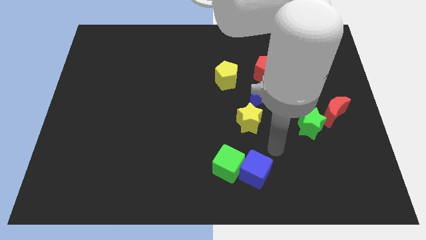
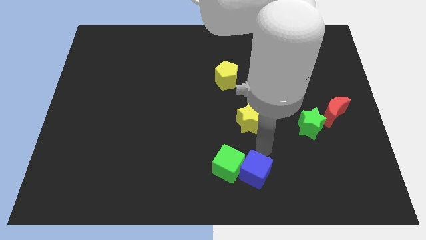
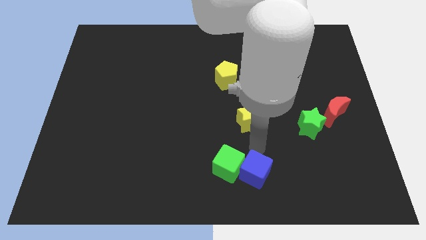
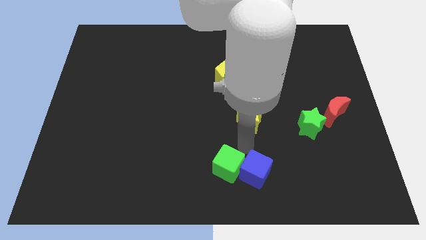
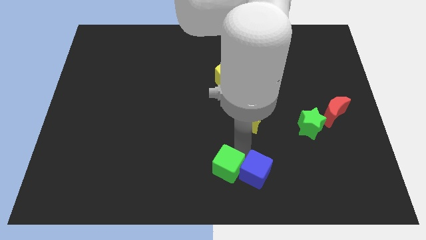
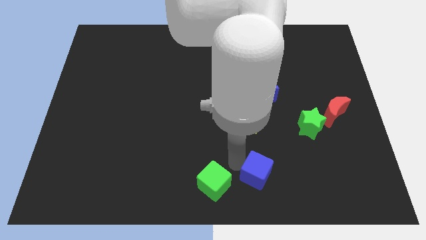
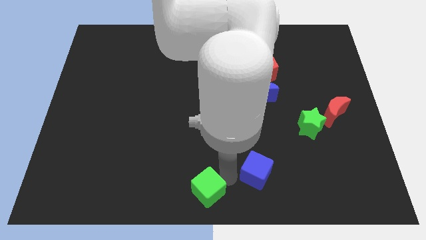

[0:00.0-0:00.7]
separate the blue cube from the green cube

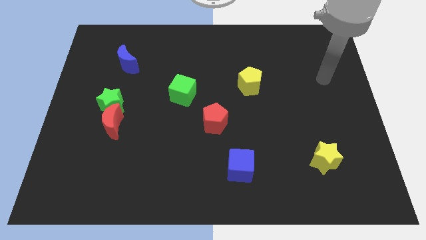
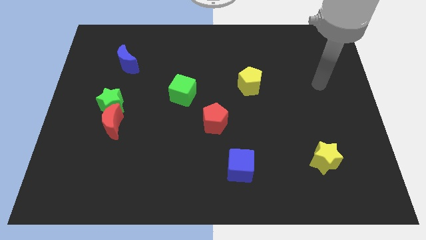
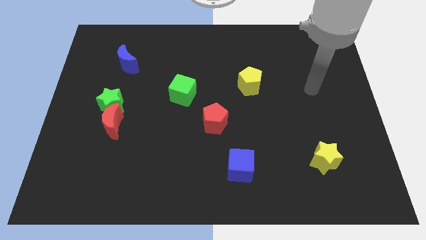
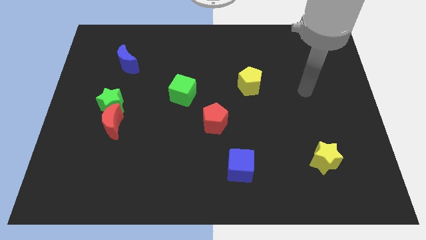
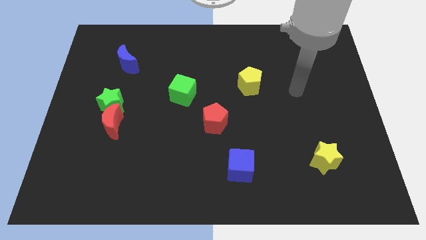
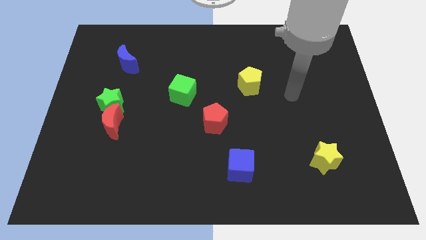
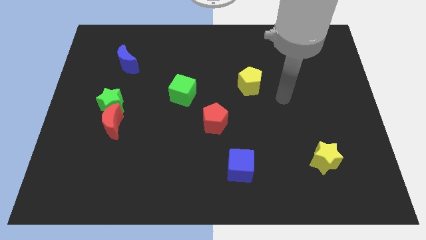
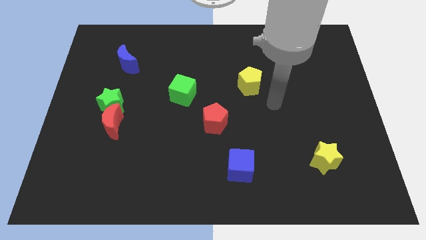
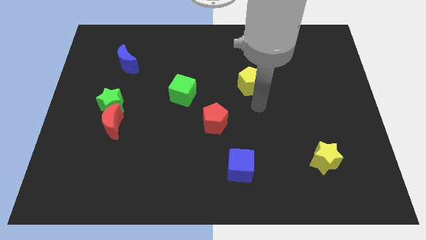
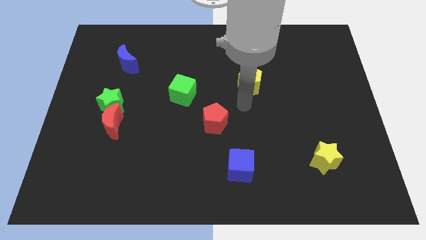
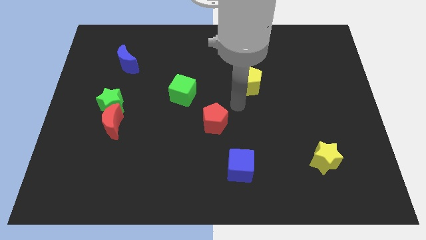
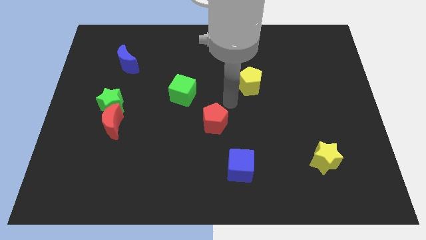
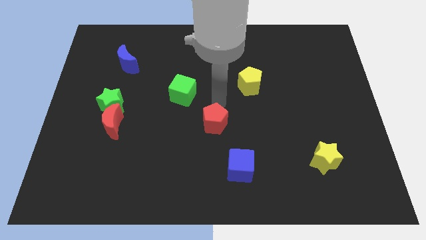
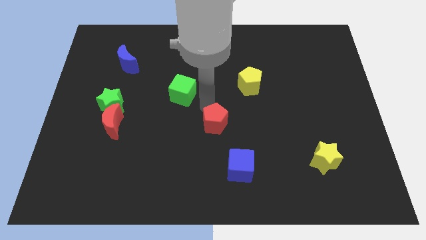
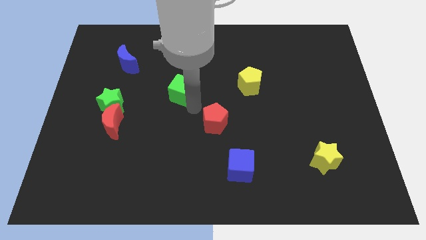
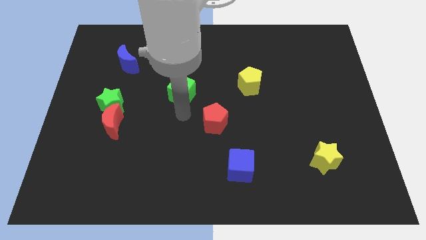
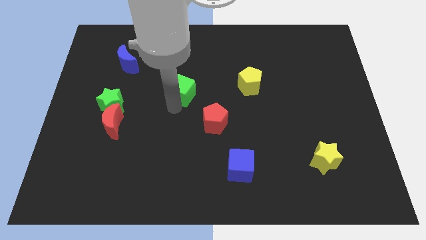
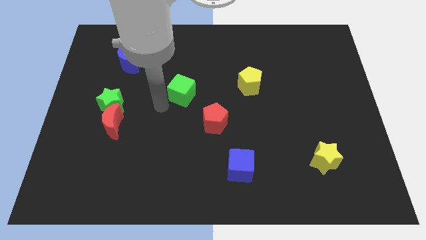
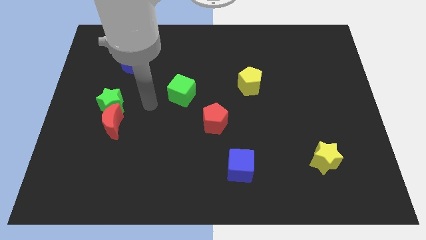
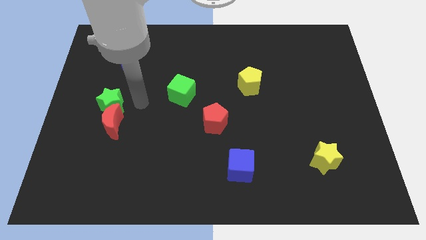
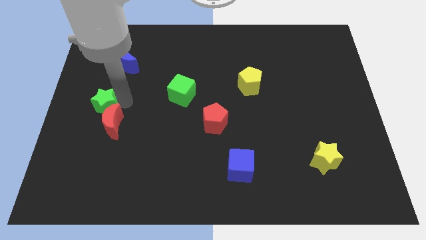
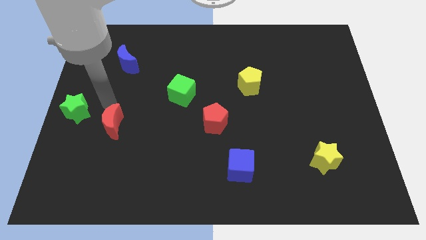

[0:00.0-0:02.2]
move the red moon away from the green star

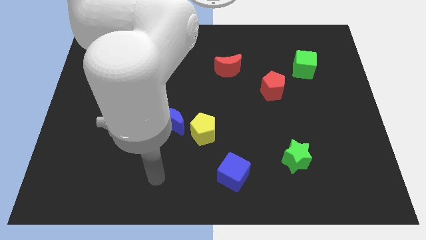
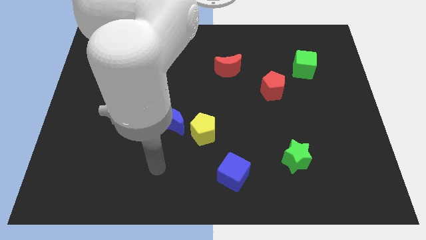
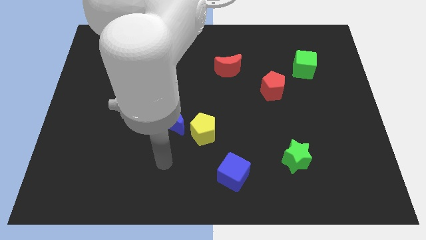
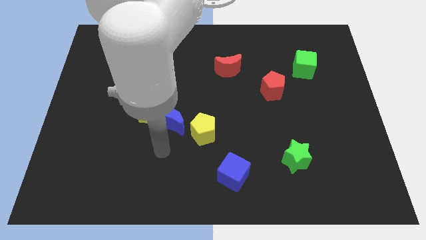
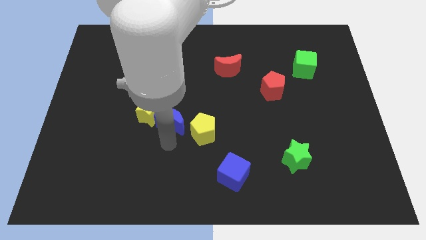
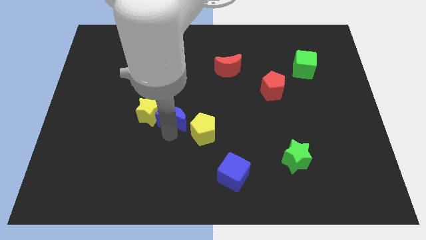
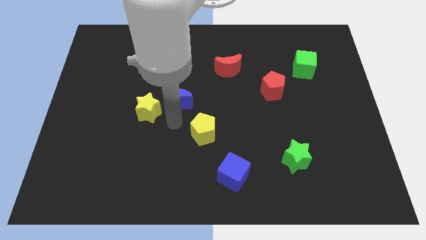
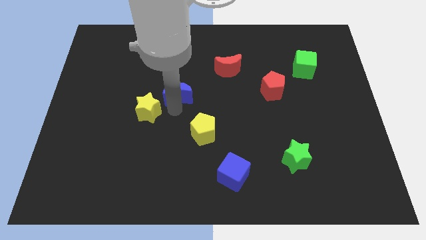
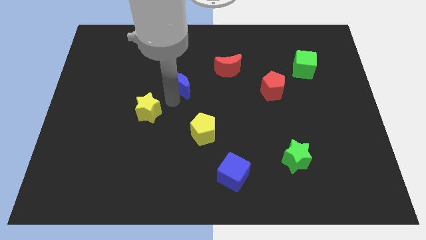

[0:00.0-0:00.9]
pull the yellow star apart from the blue moon

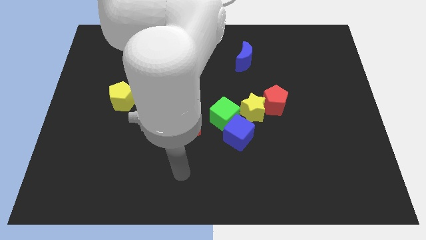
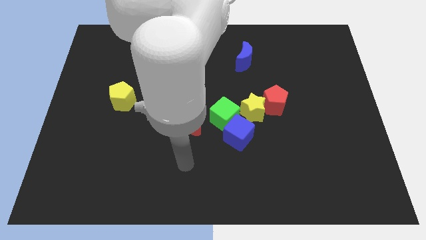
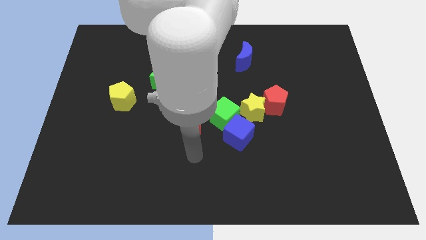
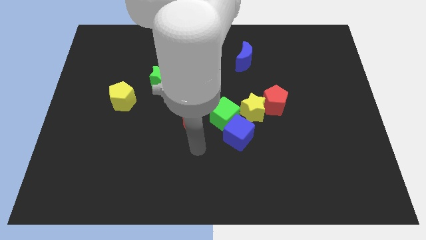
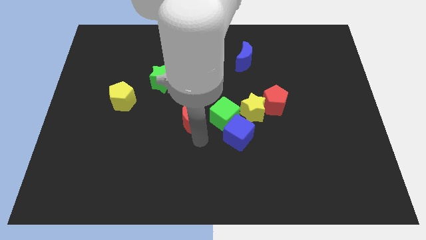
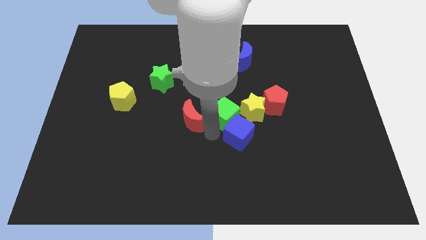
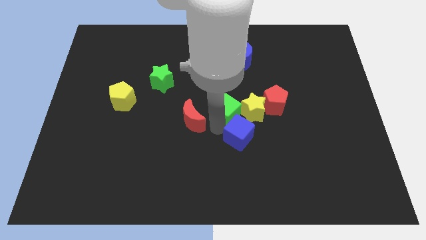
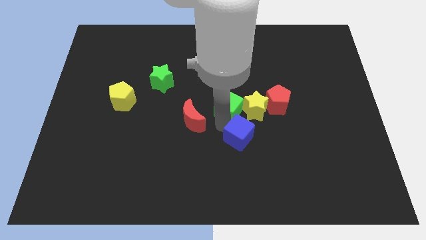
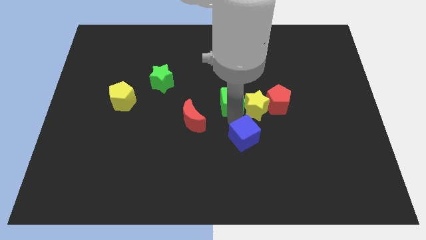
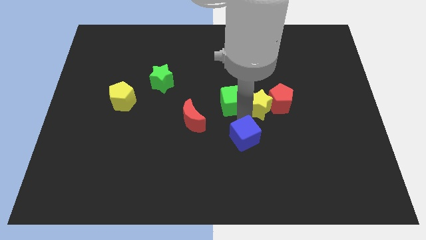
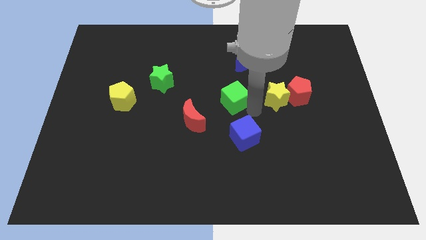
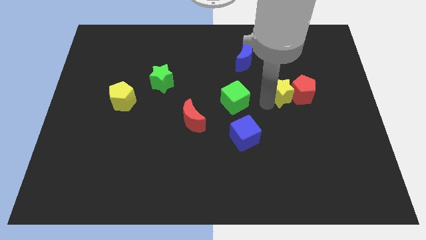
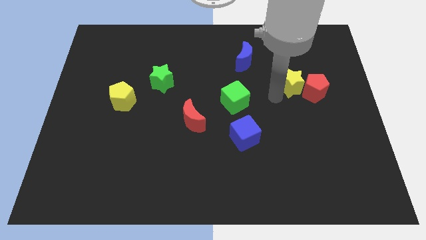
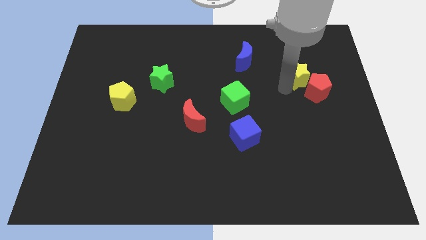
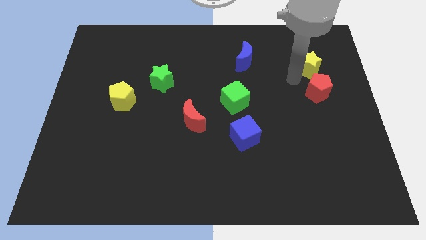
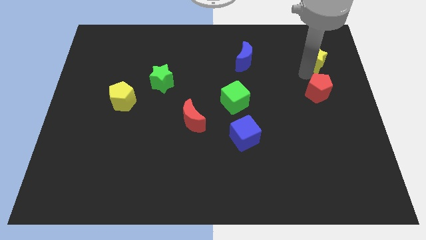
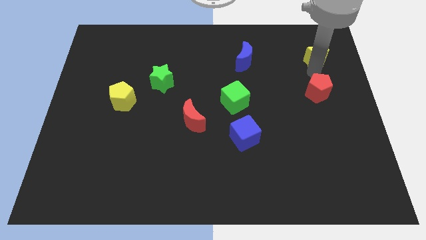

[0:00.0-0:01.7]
separate the red pentagon from the yellow star

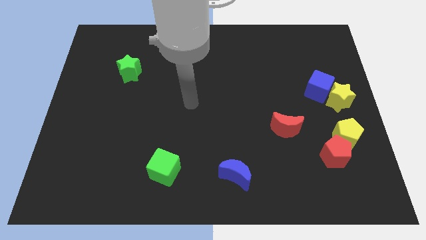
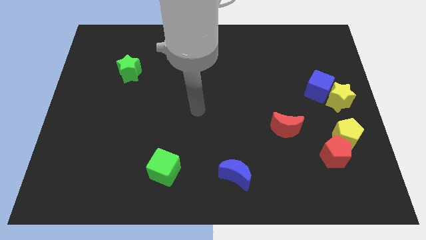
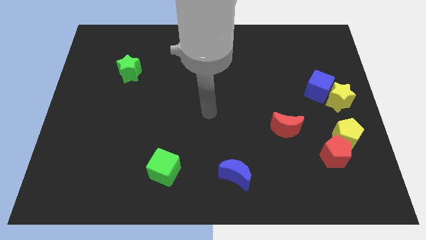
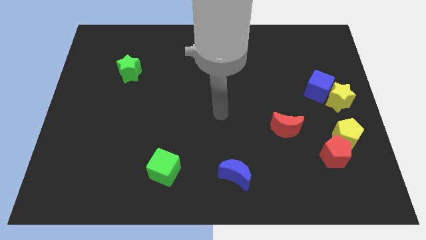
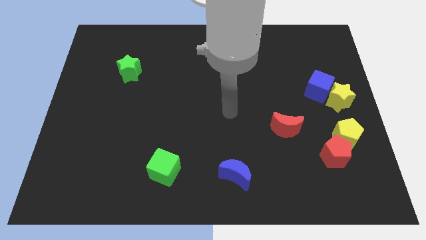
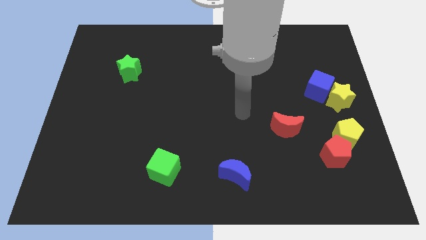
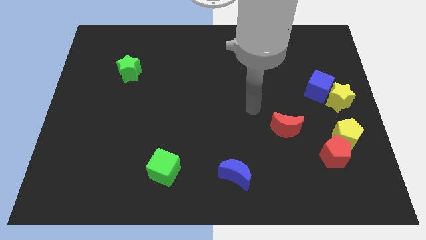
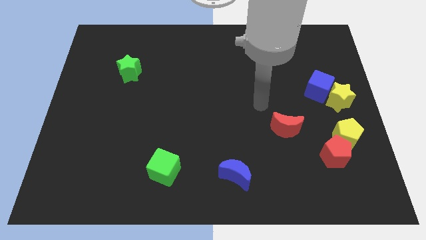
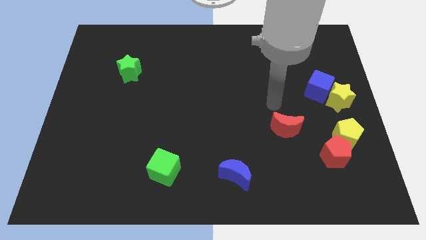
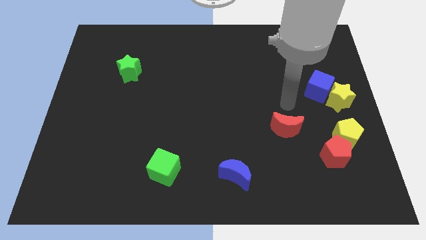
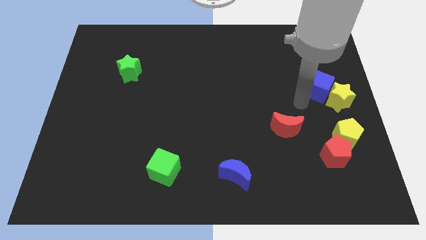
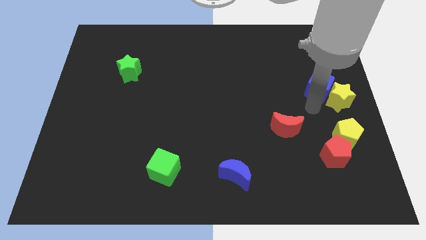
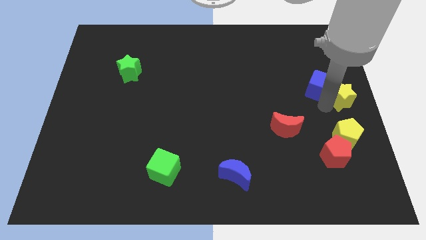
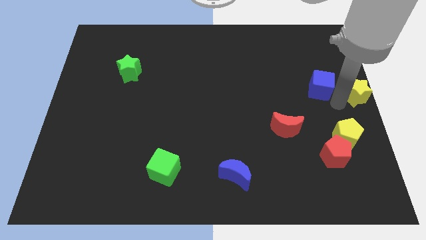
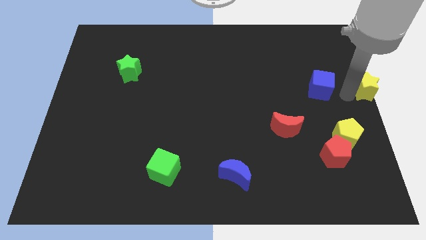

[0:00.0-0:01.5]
pull the blue cube apart from the yellow star

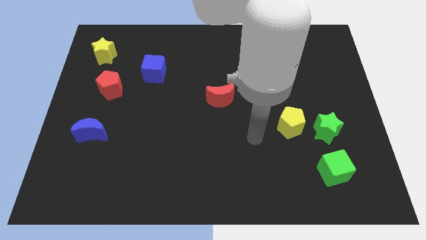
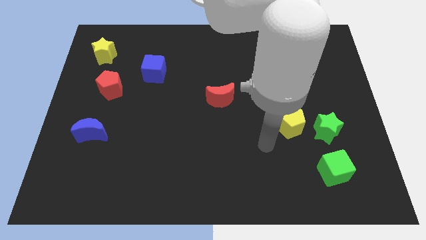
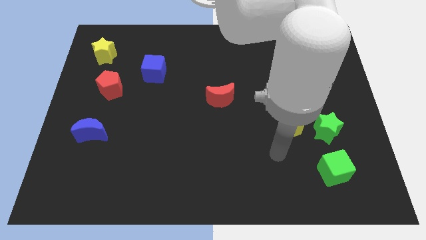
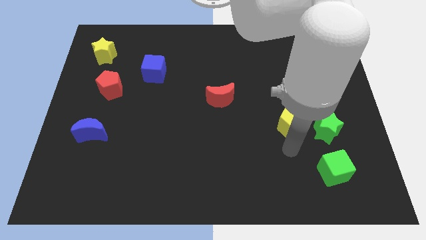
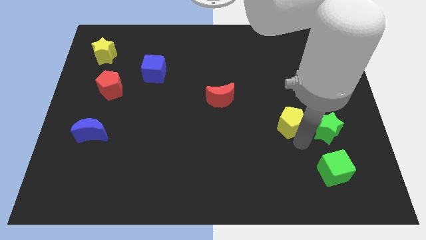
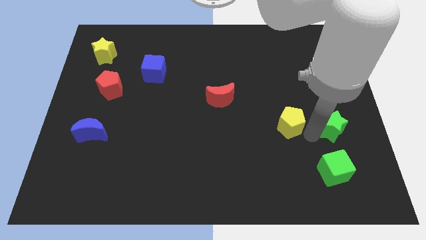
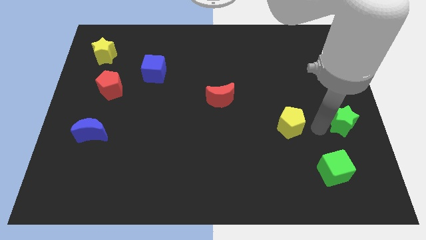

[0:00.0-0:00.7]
move the yellow pentagon away from the green star

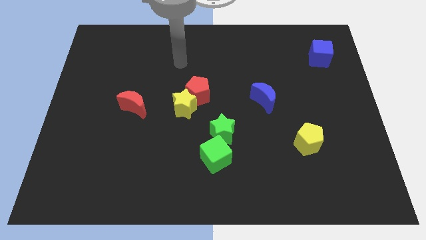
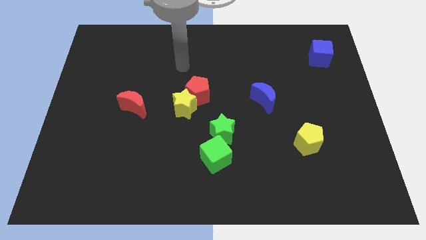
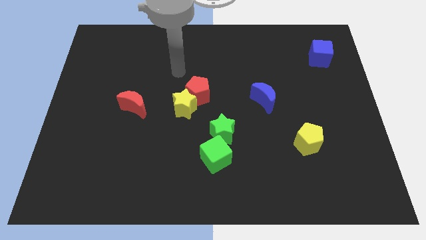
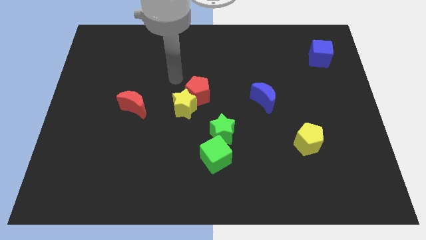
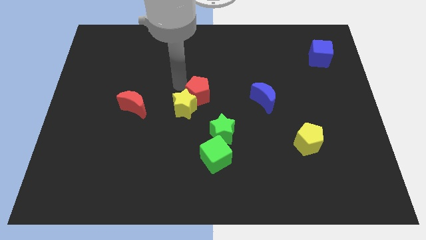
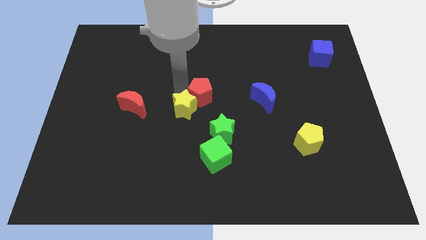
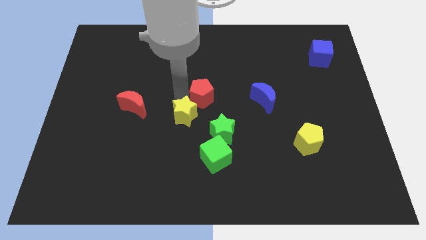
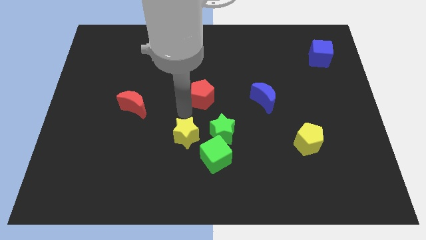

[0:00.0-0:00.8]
pull the red pentagon apart from the yellow star

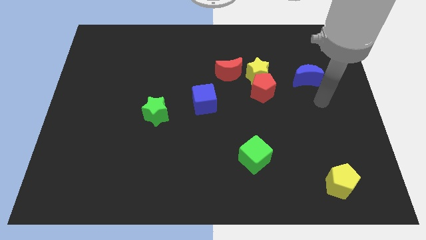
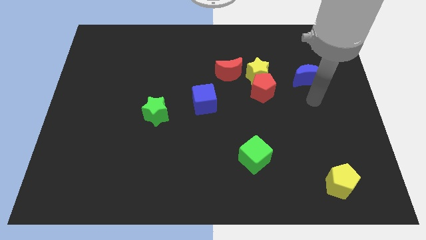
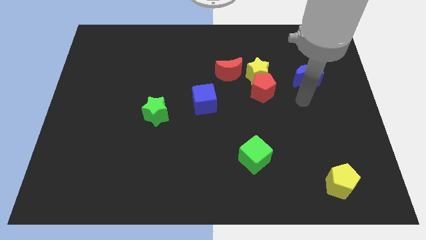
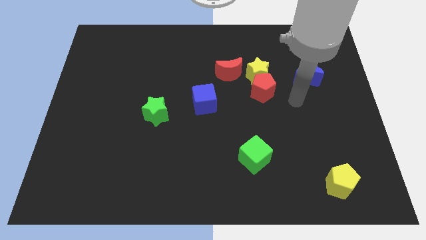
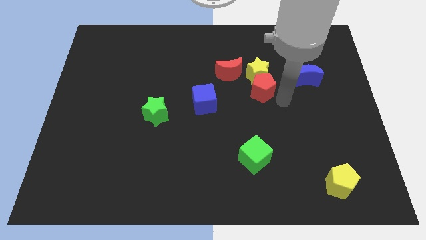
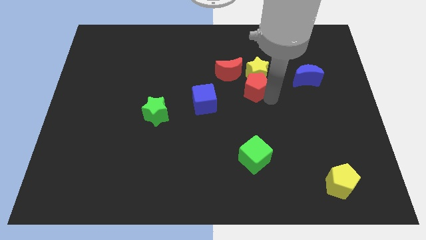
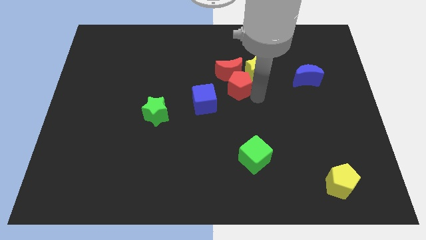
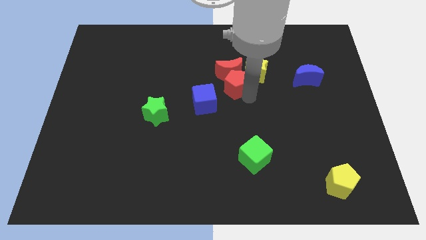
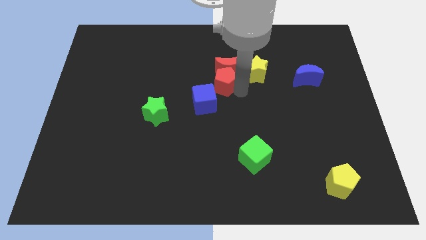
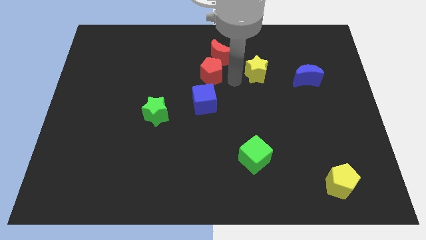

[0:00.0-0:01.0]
separate the yellow star from the red pentagon and red moon

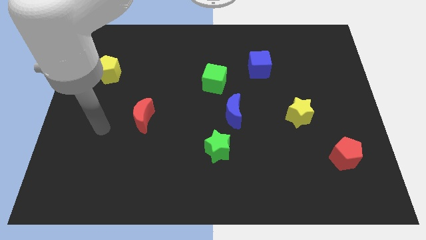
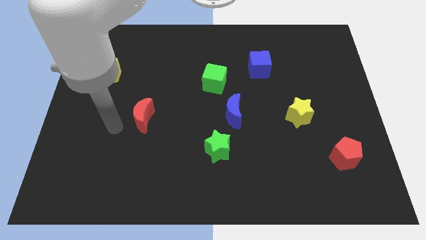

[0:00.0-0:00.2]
separate the blue moon from the green star
